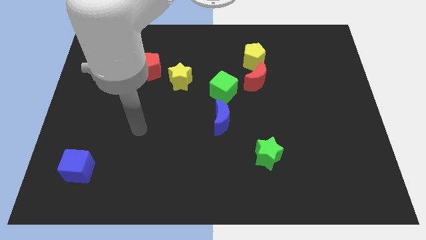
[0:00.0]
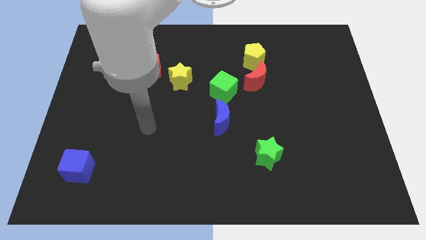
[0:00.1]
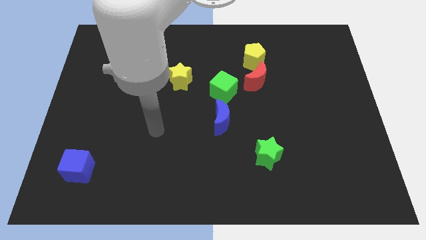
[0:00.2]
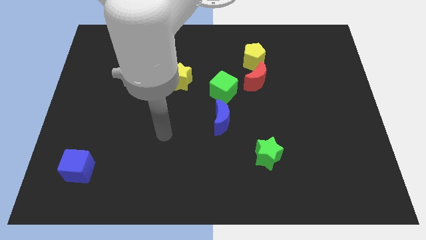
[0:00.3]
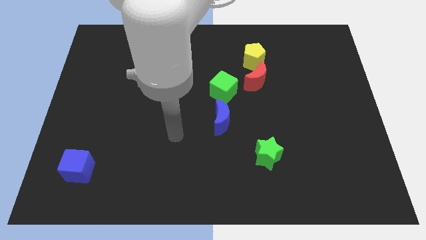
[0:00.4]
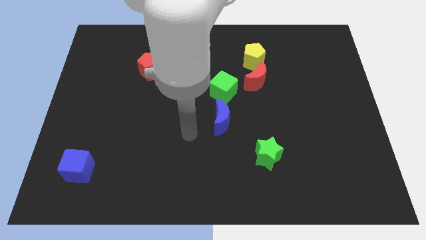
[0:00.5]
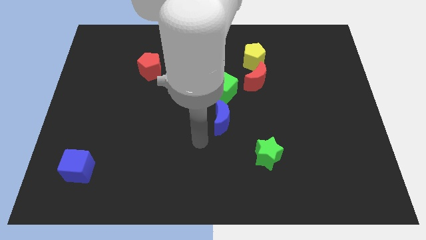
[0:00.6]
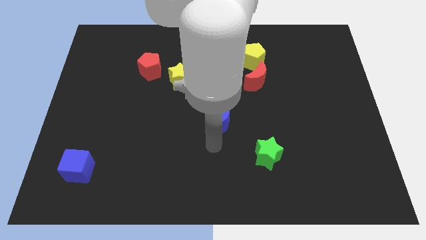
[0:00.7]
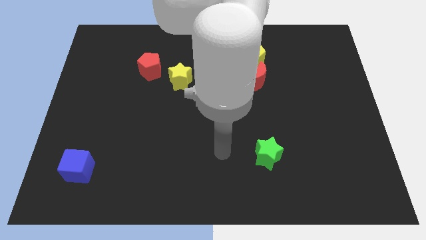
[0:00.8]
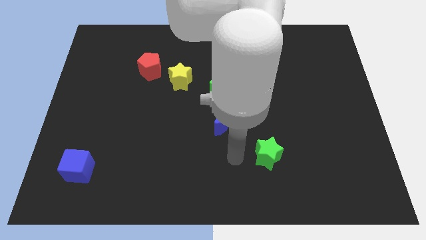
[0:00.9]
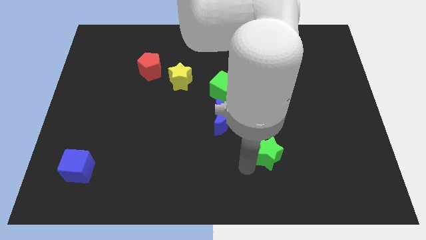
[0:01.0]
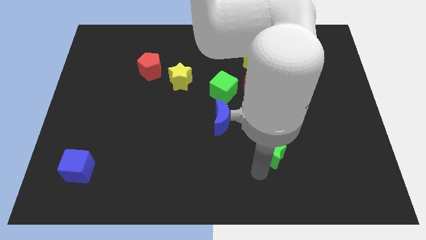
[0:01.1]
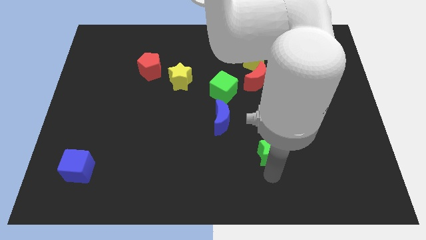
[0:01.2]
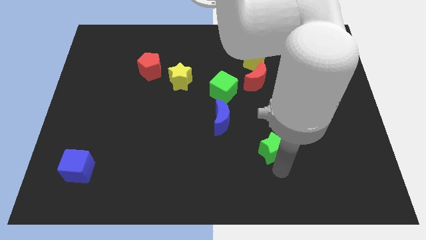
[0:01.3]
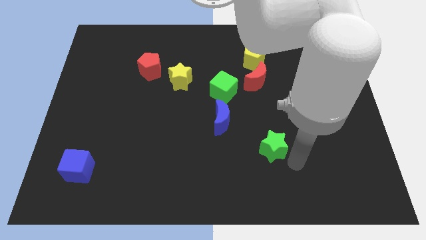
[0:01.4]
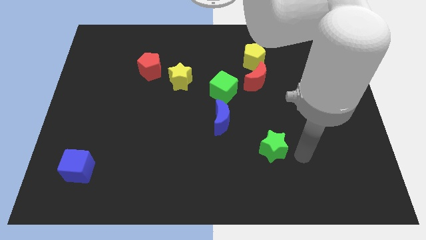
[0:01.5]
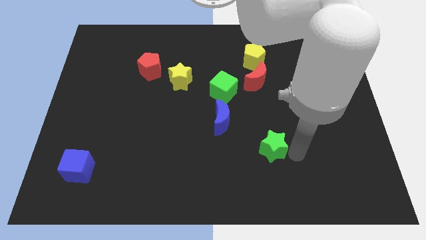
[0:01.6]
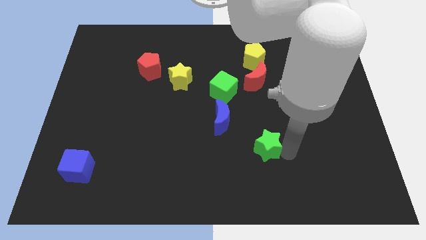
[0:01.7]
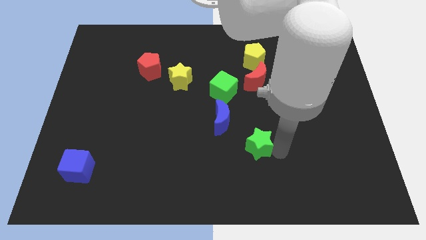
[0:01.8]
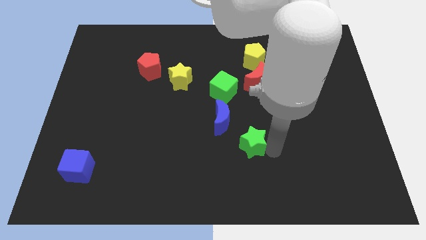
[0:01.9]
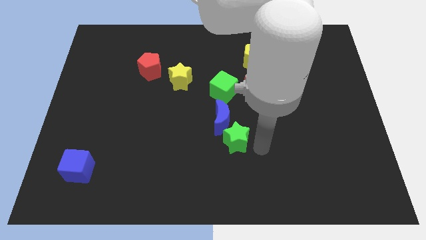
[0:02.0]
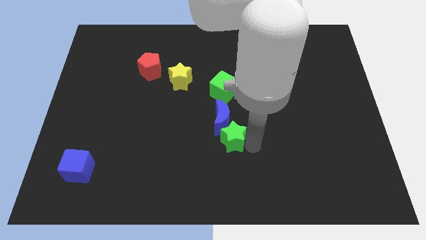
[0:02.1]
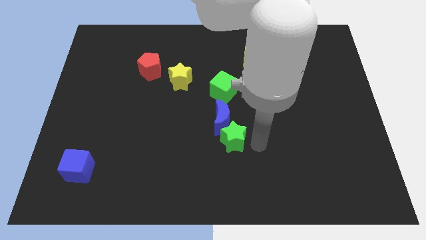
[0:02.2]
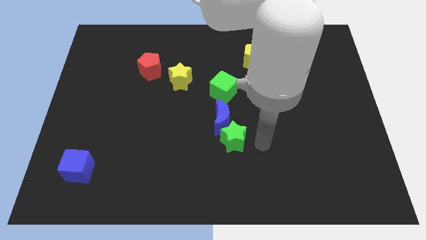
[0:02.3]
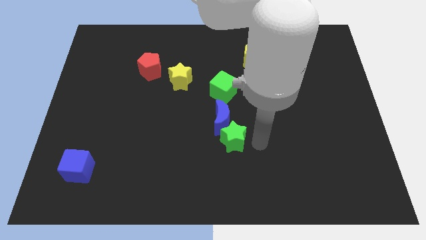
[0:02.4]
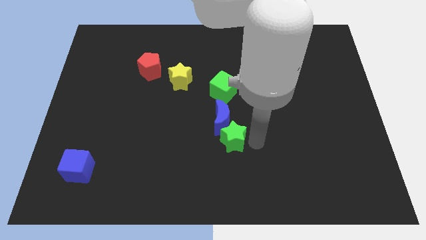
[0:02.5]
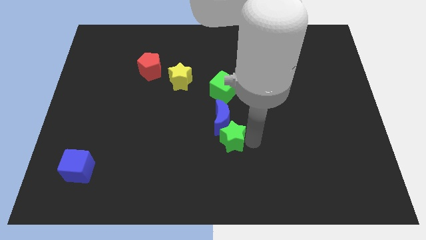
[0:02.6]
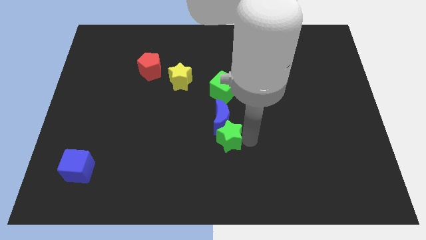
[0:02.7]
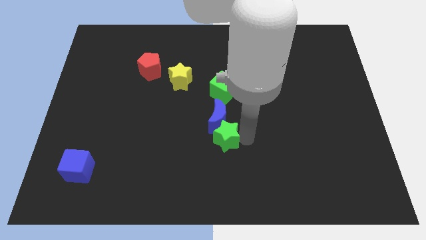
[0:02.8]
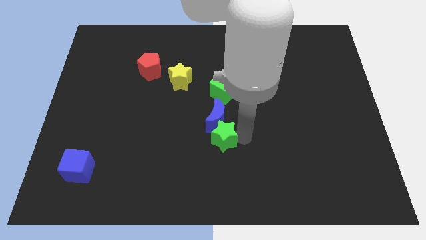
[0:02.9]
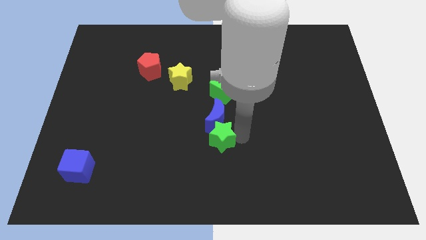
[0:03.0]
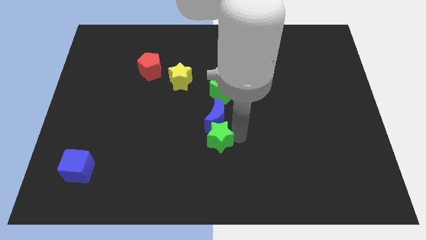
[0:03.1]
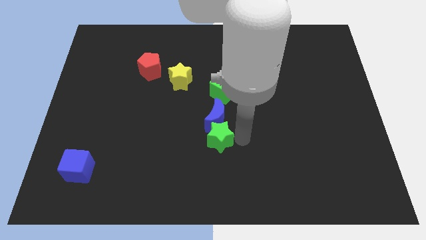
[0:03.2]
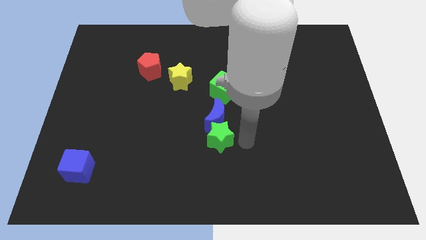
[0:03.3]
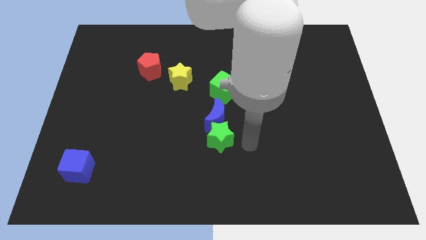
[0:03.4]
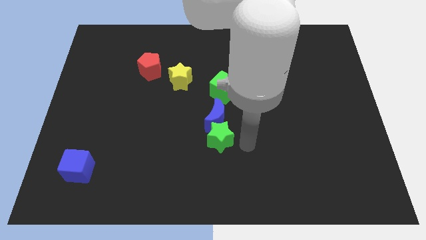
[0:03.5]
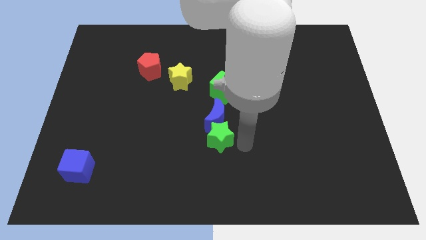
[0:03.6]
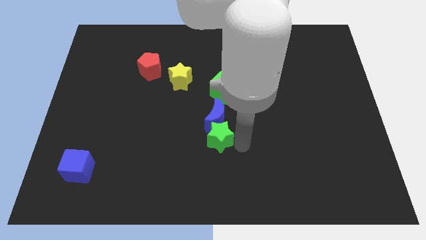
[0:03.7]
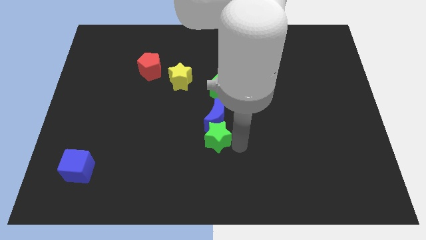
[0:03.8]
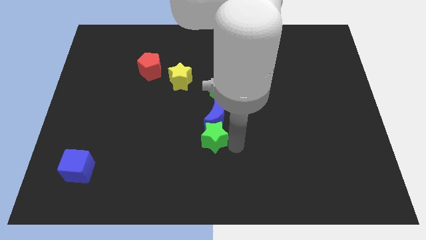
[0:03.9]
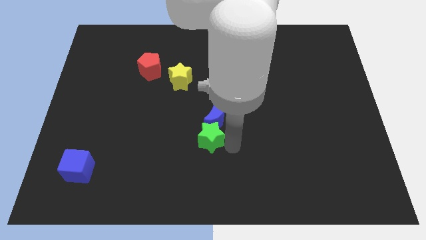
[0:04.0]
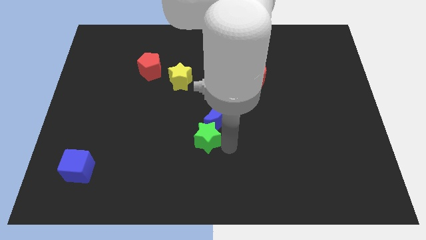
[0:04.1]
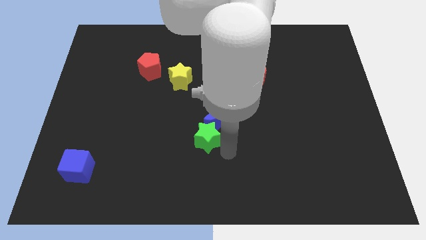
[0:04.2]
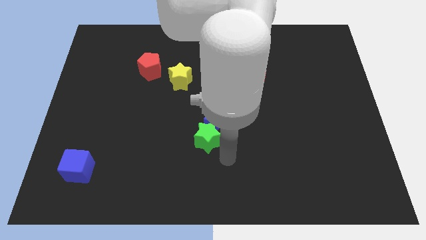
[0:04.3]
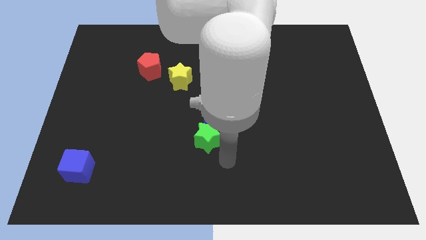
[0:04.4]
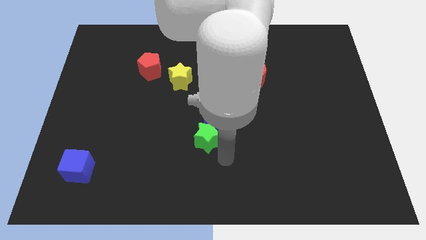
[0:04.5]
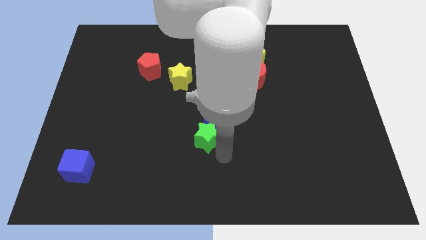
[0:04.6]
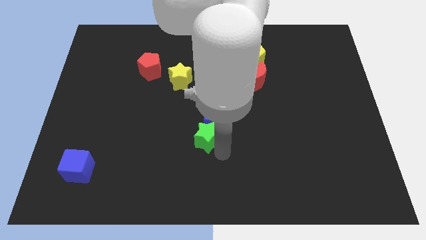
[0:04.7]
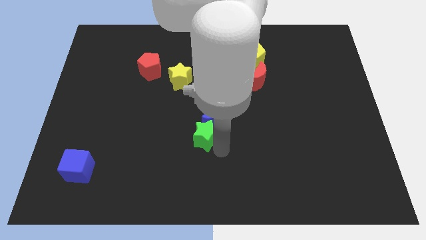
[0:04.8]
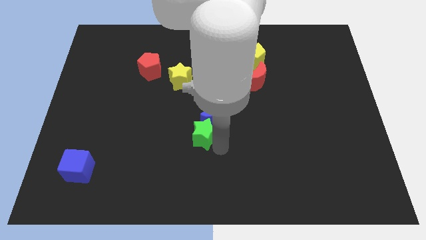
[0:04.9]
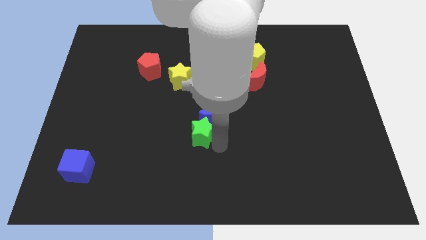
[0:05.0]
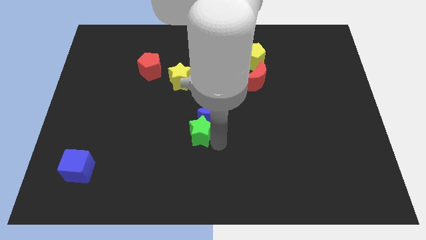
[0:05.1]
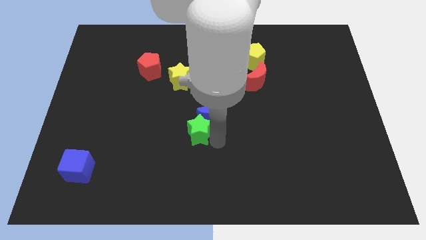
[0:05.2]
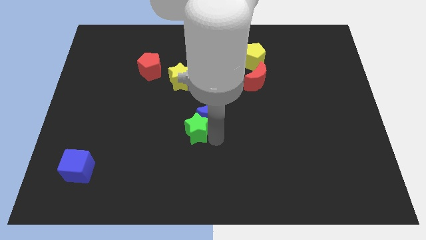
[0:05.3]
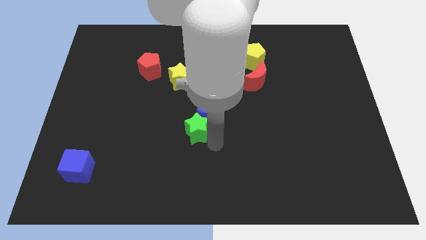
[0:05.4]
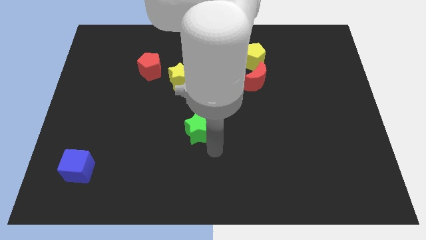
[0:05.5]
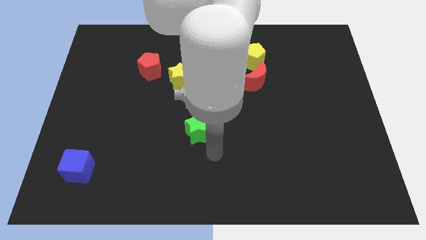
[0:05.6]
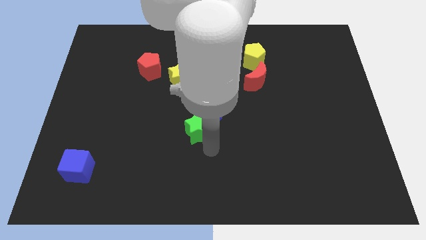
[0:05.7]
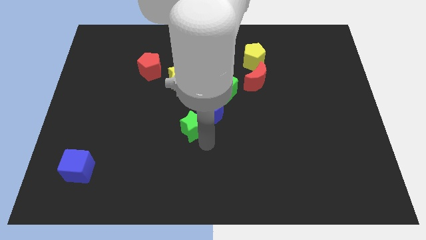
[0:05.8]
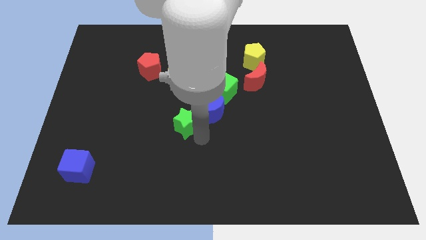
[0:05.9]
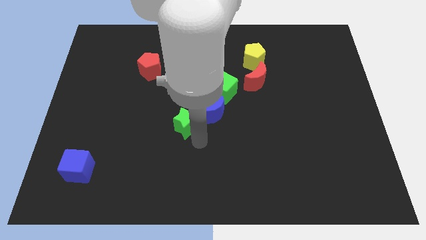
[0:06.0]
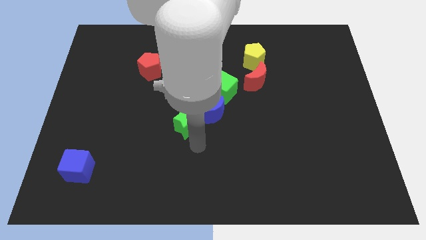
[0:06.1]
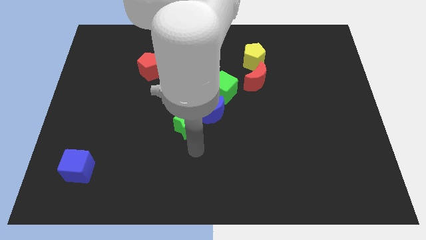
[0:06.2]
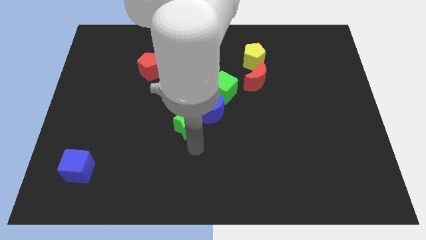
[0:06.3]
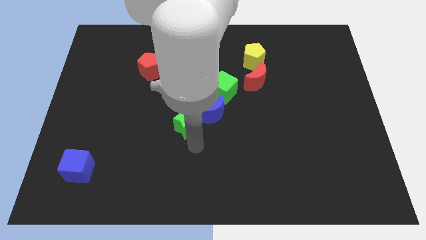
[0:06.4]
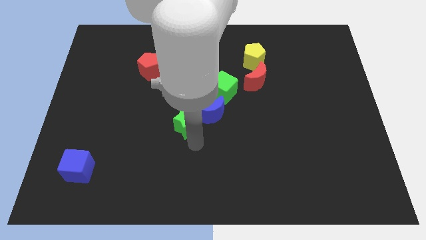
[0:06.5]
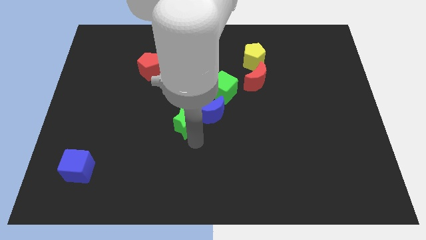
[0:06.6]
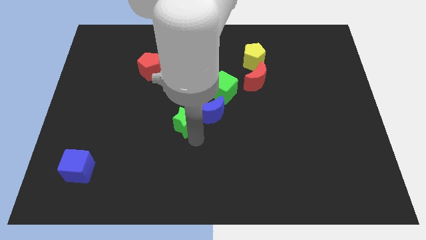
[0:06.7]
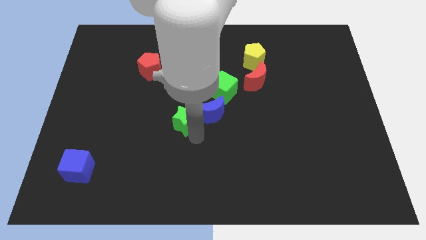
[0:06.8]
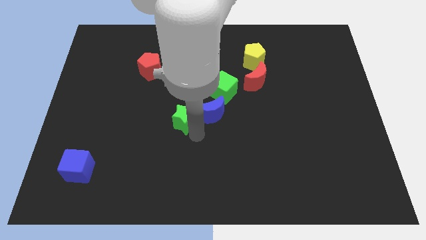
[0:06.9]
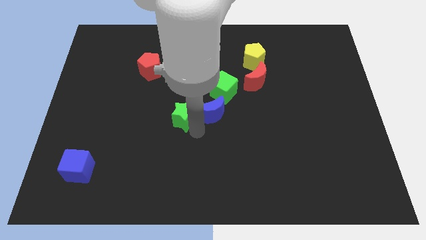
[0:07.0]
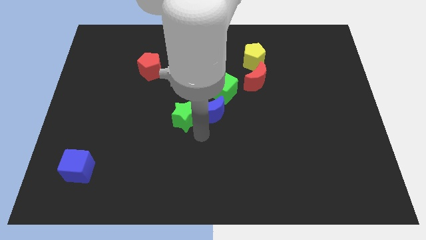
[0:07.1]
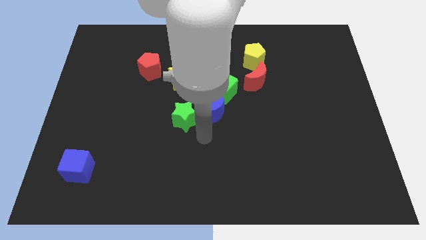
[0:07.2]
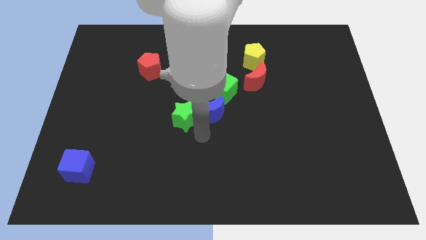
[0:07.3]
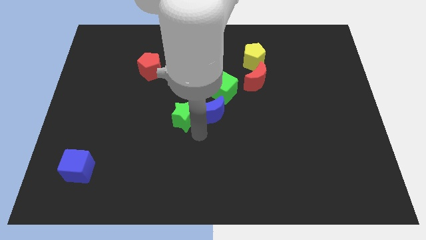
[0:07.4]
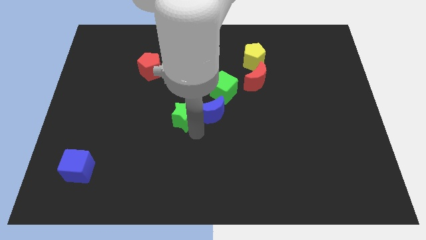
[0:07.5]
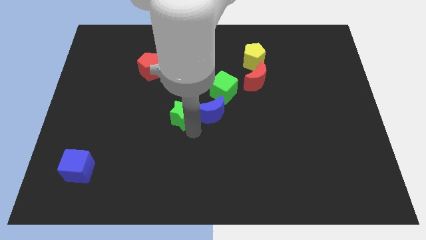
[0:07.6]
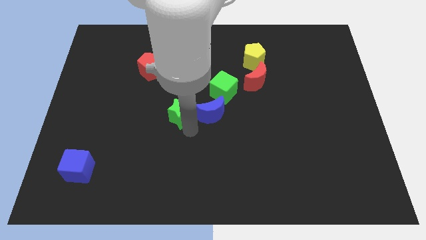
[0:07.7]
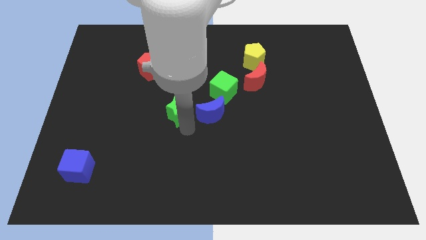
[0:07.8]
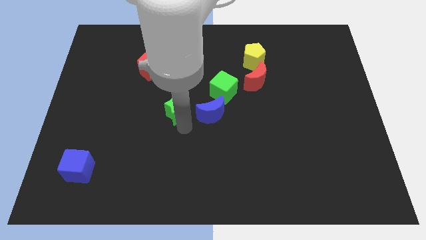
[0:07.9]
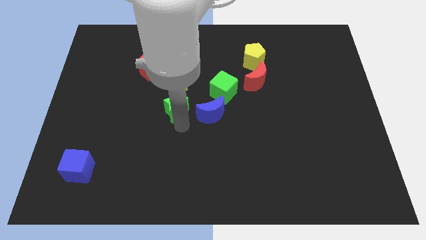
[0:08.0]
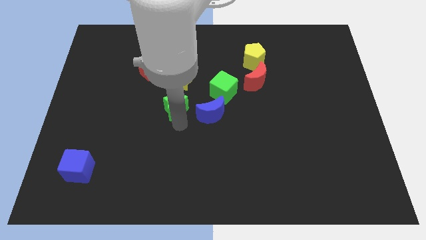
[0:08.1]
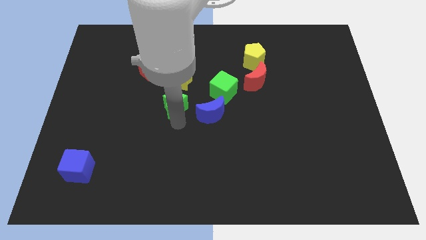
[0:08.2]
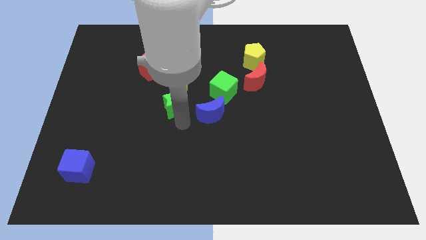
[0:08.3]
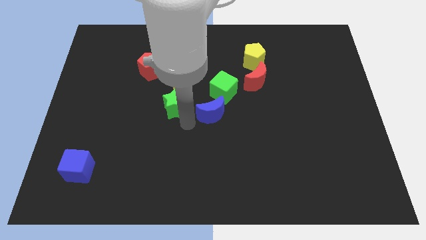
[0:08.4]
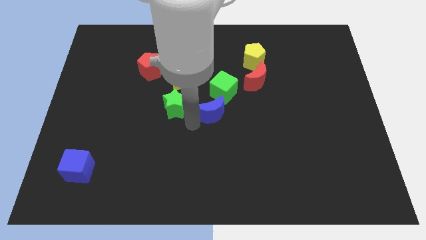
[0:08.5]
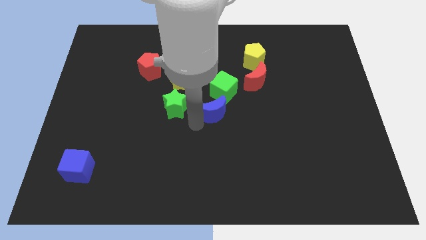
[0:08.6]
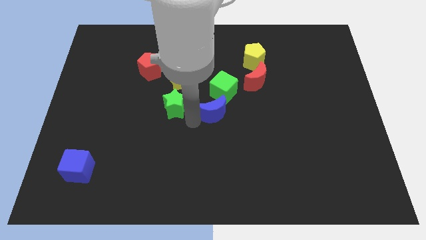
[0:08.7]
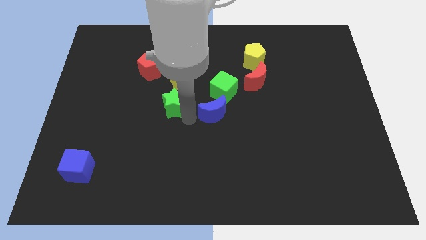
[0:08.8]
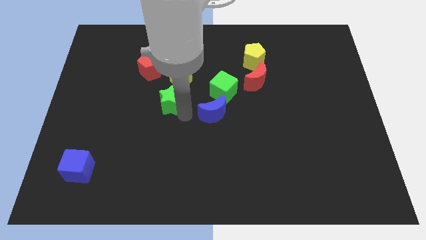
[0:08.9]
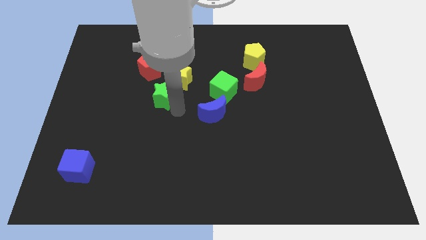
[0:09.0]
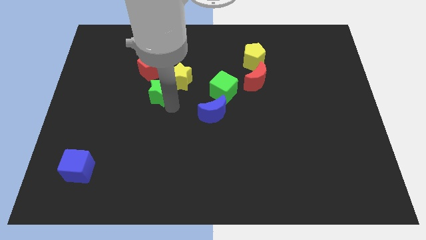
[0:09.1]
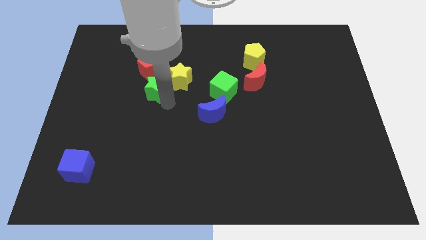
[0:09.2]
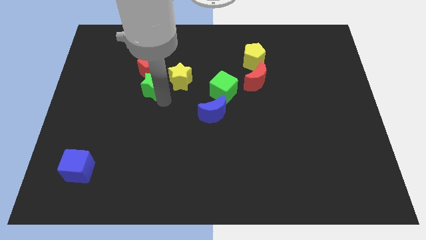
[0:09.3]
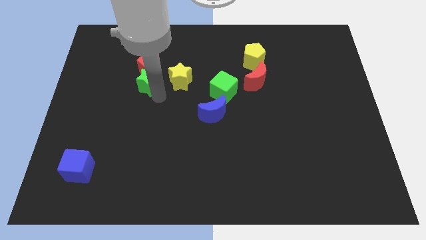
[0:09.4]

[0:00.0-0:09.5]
put the green star close to the red pentagon
